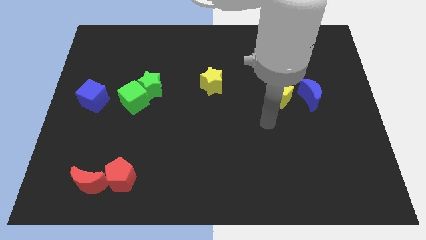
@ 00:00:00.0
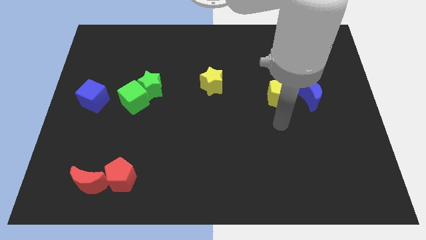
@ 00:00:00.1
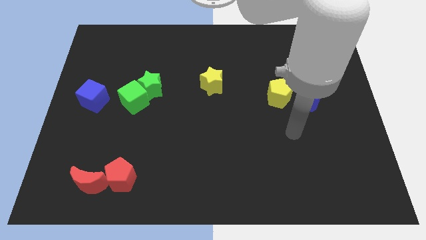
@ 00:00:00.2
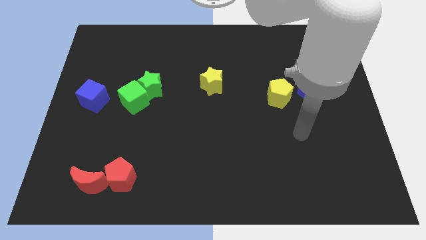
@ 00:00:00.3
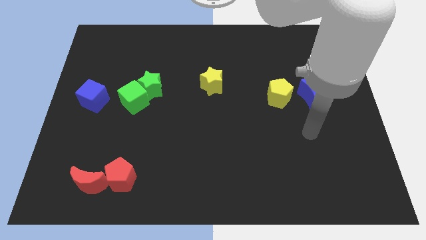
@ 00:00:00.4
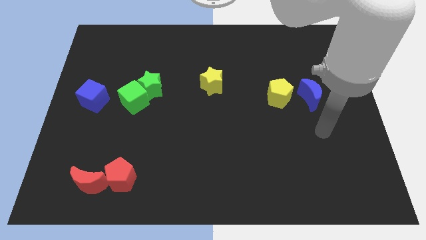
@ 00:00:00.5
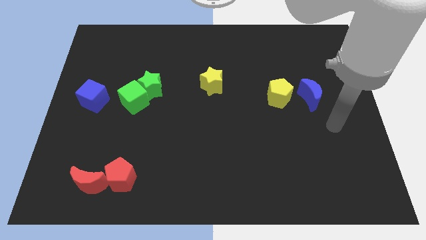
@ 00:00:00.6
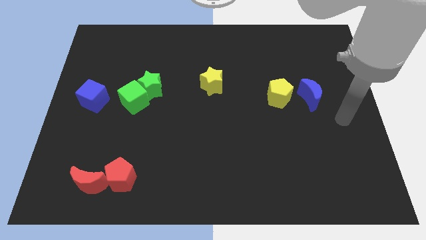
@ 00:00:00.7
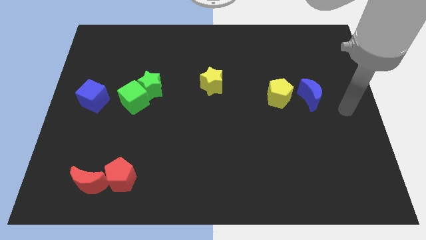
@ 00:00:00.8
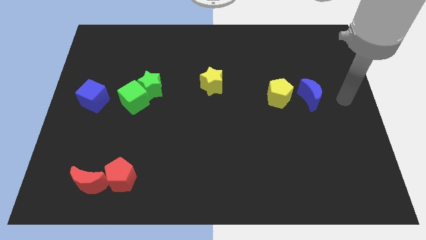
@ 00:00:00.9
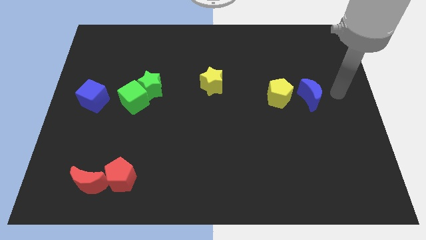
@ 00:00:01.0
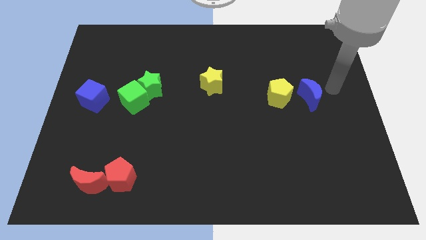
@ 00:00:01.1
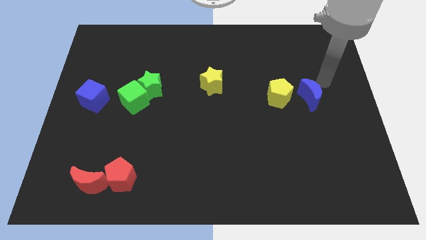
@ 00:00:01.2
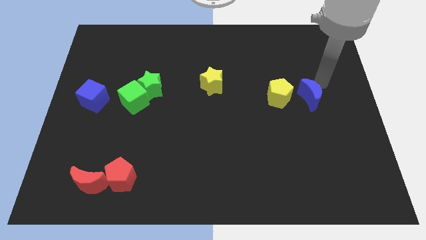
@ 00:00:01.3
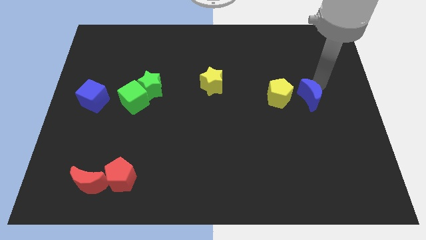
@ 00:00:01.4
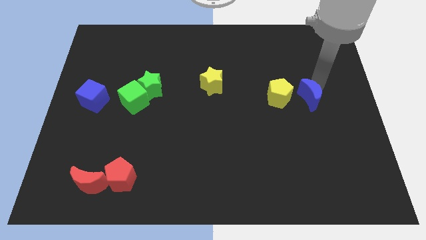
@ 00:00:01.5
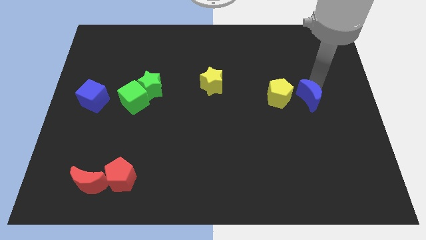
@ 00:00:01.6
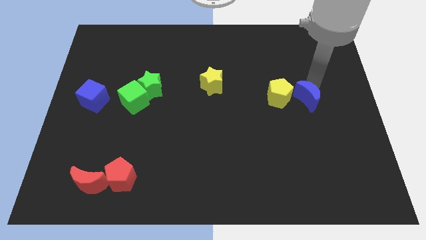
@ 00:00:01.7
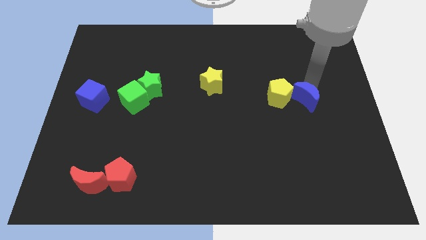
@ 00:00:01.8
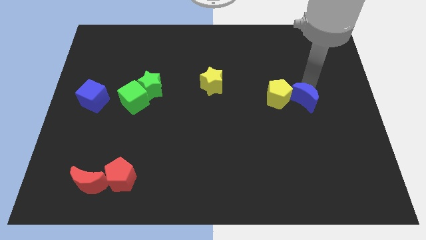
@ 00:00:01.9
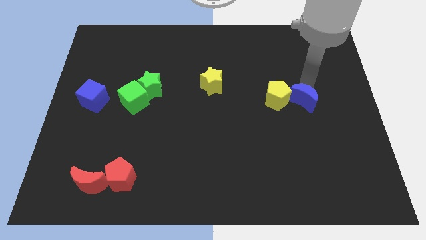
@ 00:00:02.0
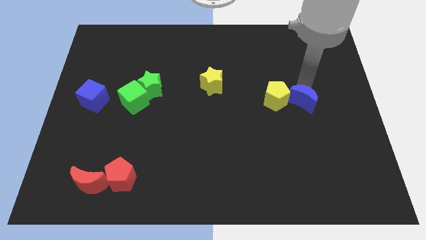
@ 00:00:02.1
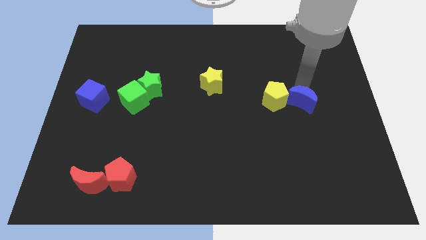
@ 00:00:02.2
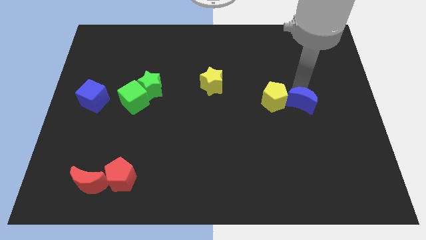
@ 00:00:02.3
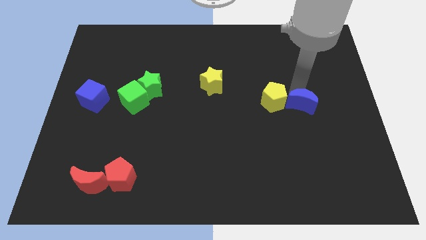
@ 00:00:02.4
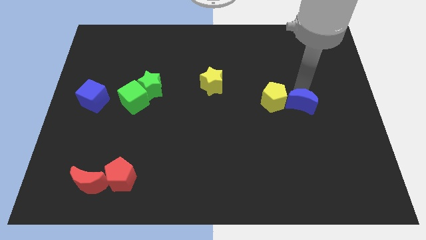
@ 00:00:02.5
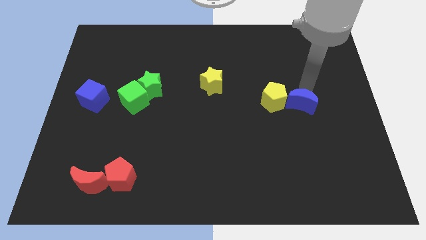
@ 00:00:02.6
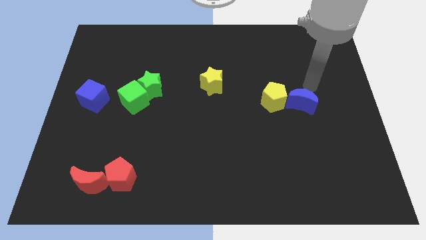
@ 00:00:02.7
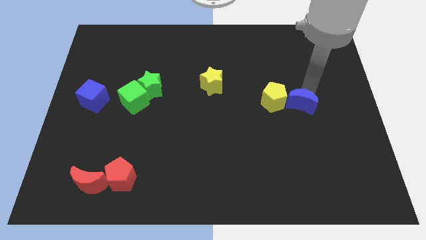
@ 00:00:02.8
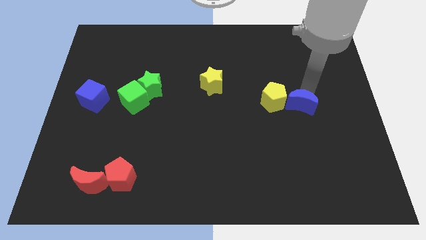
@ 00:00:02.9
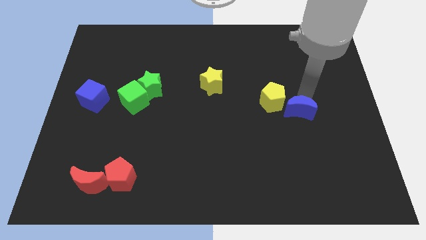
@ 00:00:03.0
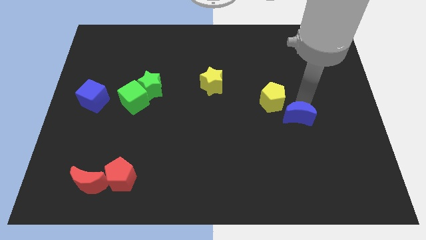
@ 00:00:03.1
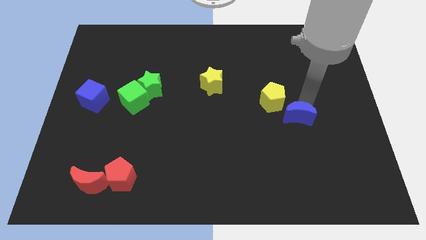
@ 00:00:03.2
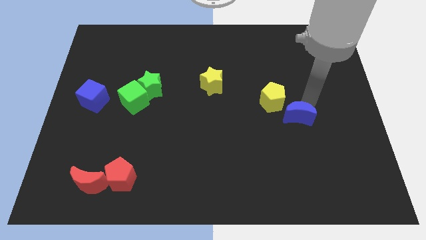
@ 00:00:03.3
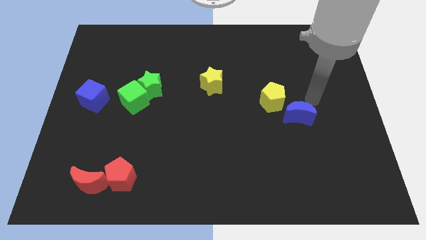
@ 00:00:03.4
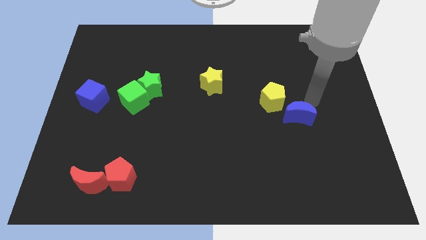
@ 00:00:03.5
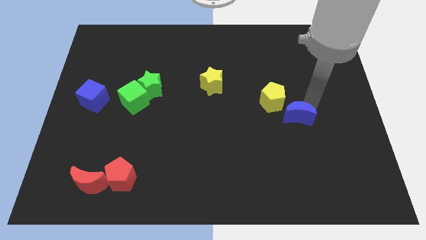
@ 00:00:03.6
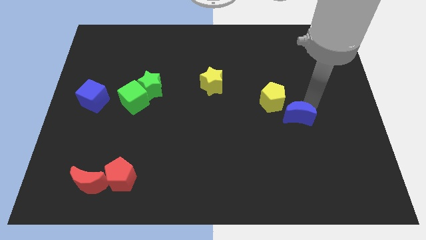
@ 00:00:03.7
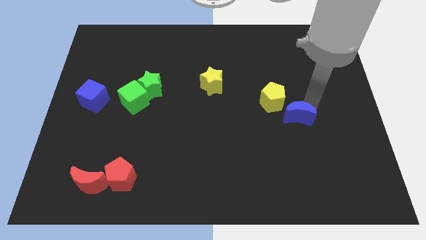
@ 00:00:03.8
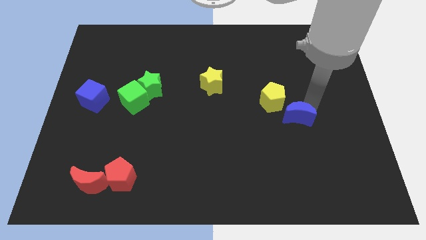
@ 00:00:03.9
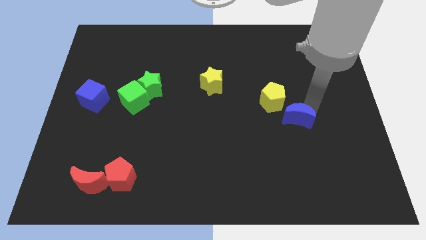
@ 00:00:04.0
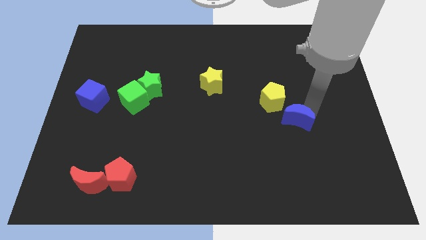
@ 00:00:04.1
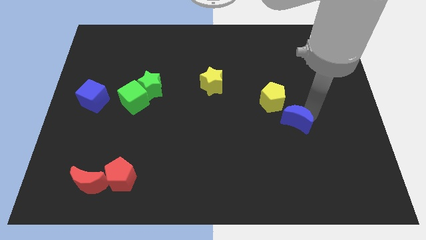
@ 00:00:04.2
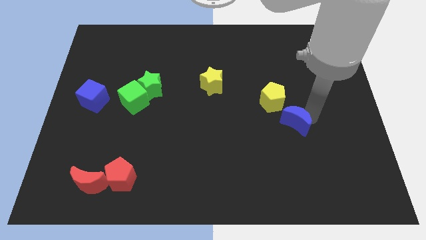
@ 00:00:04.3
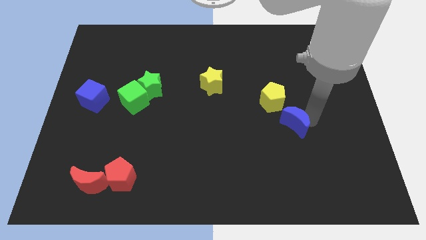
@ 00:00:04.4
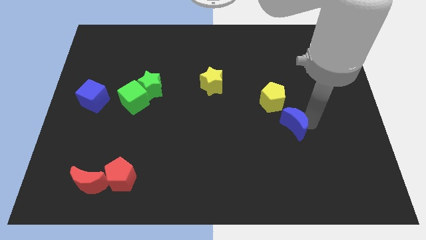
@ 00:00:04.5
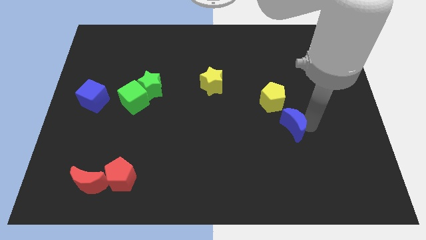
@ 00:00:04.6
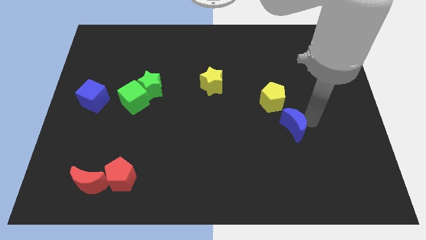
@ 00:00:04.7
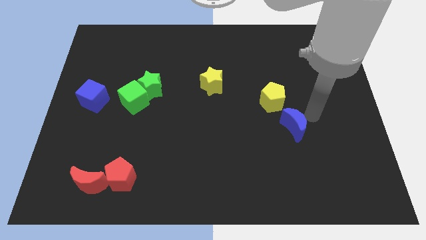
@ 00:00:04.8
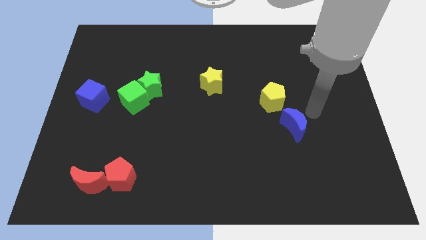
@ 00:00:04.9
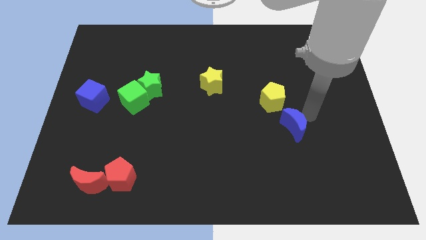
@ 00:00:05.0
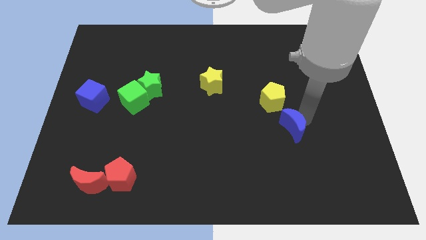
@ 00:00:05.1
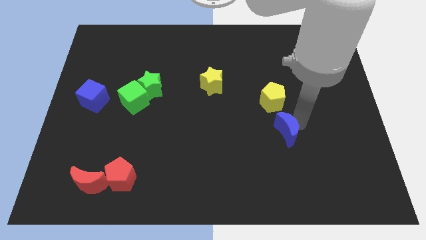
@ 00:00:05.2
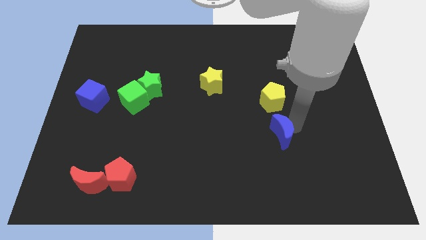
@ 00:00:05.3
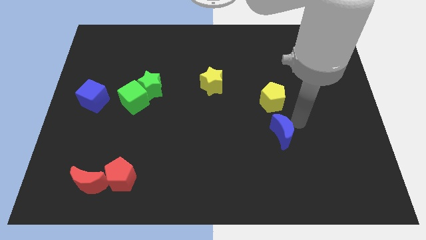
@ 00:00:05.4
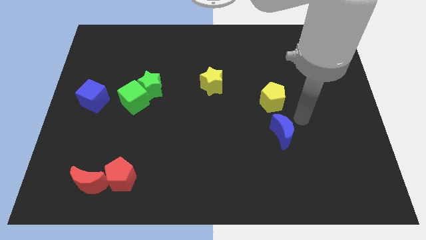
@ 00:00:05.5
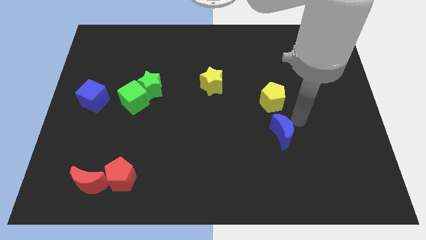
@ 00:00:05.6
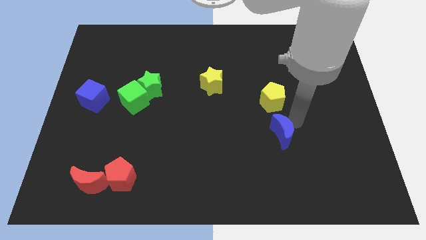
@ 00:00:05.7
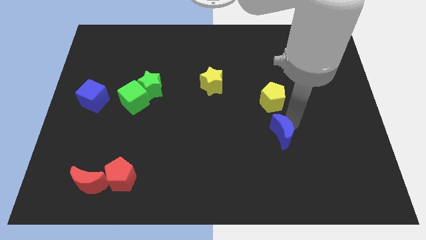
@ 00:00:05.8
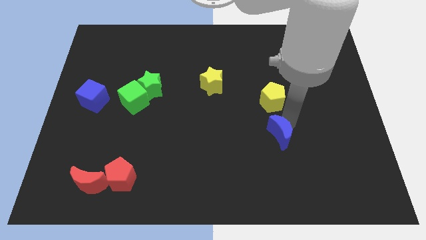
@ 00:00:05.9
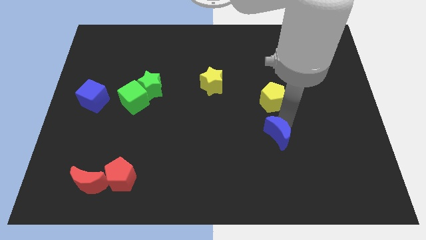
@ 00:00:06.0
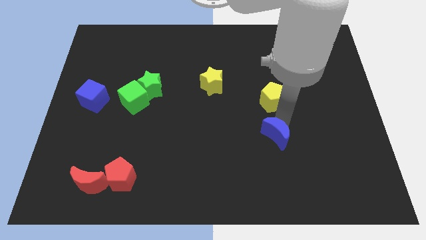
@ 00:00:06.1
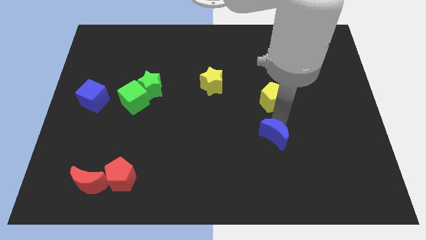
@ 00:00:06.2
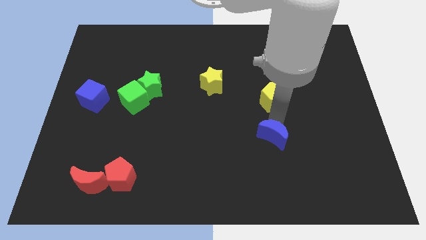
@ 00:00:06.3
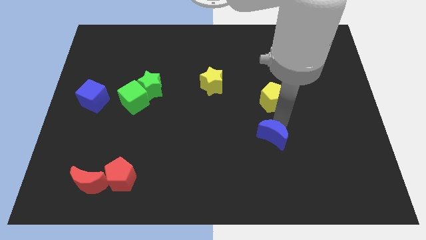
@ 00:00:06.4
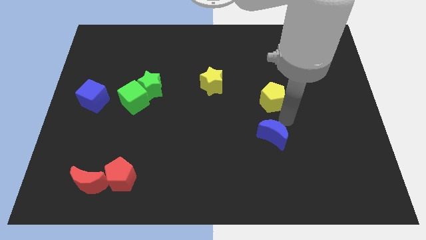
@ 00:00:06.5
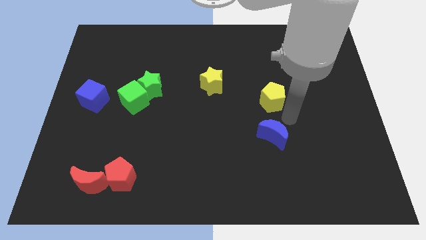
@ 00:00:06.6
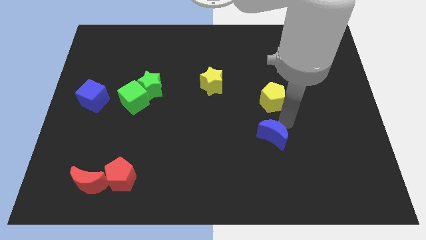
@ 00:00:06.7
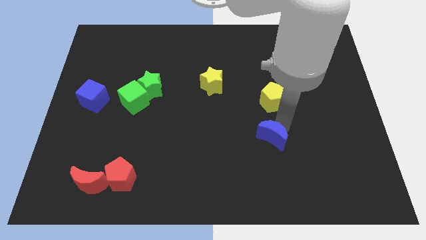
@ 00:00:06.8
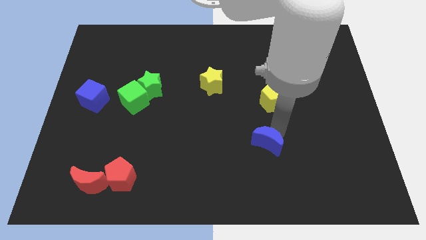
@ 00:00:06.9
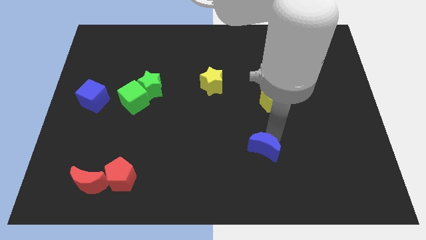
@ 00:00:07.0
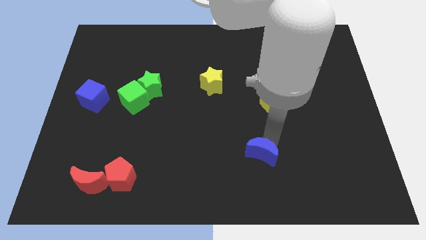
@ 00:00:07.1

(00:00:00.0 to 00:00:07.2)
slide the blue moon diagonally down and left

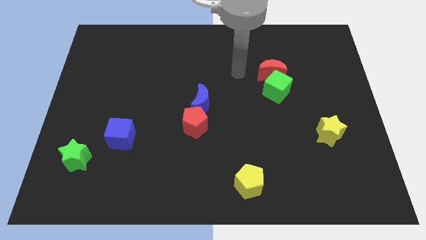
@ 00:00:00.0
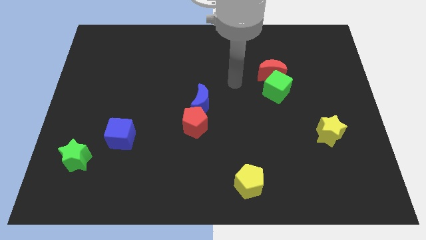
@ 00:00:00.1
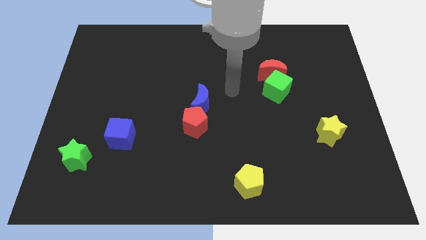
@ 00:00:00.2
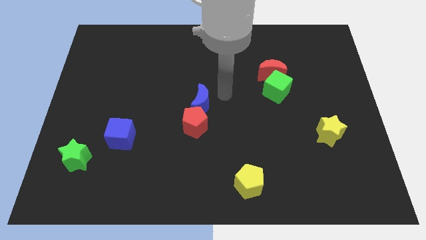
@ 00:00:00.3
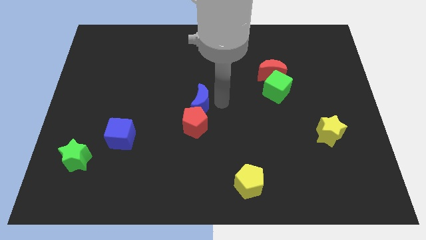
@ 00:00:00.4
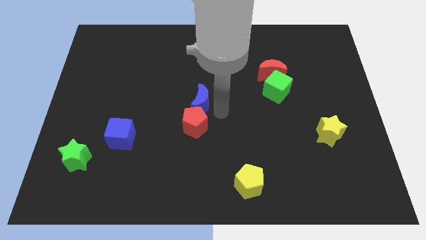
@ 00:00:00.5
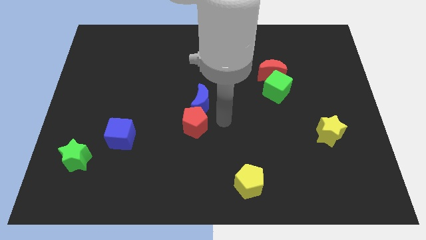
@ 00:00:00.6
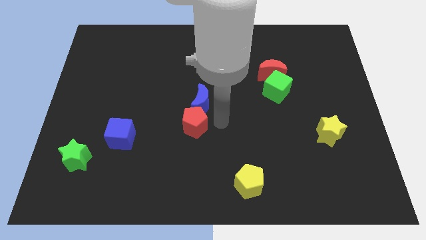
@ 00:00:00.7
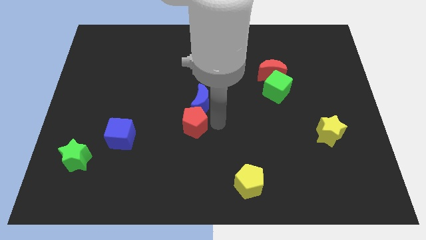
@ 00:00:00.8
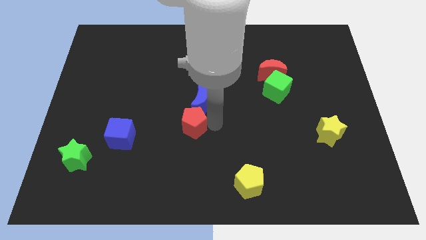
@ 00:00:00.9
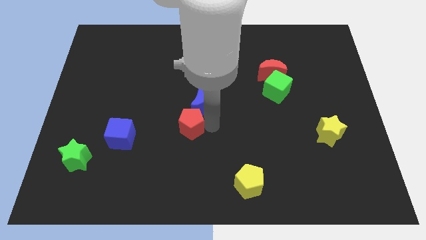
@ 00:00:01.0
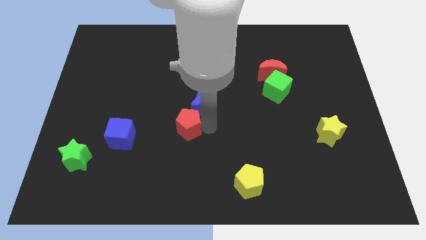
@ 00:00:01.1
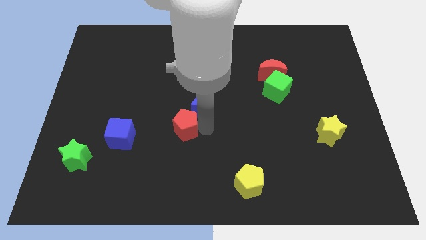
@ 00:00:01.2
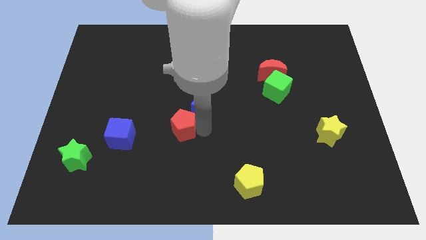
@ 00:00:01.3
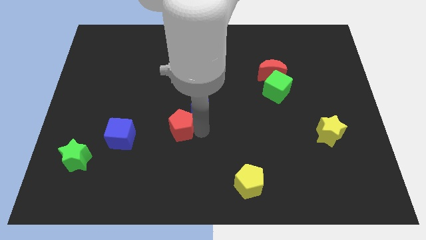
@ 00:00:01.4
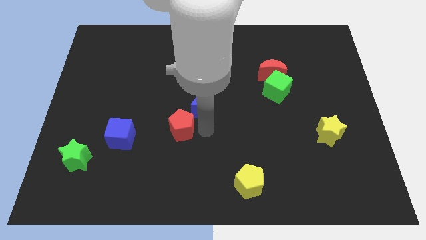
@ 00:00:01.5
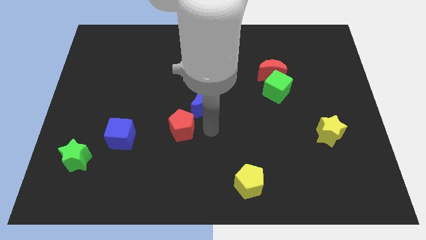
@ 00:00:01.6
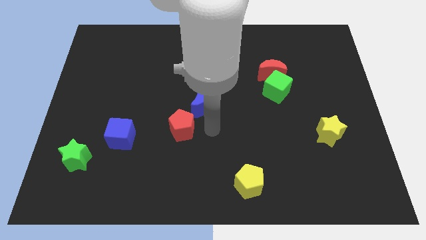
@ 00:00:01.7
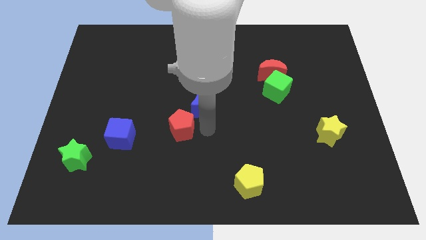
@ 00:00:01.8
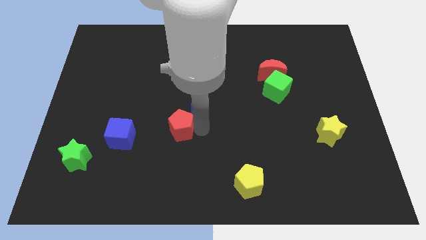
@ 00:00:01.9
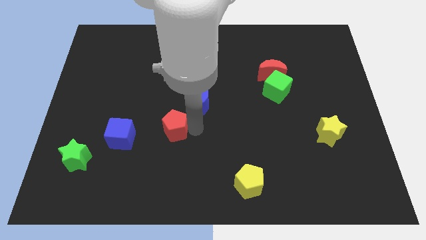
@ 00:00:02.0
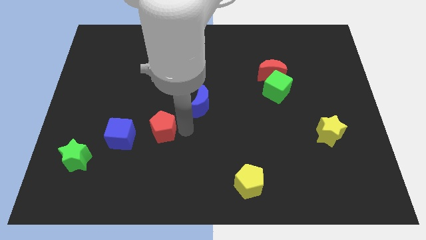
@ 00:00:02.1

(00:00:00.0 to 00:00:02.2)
slightly slide the red pentagon to the left
